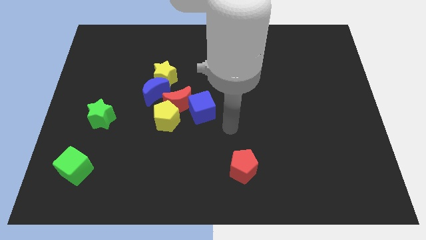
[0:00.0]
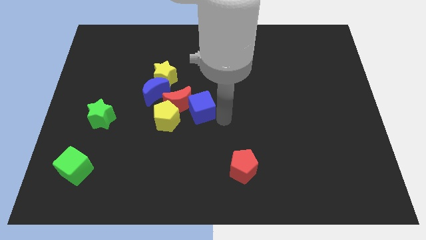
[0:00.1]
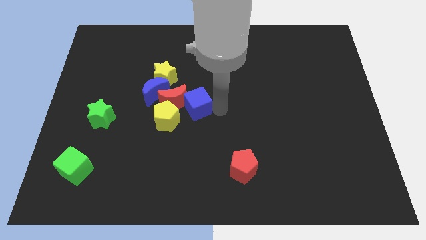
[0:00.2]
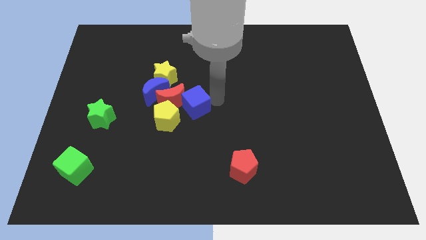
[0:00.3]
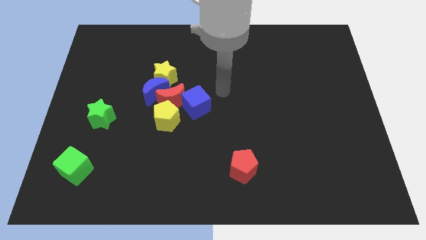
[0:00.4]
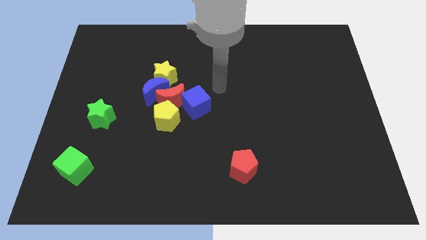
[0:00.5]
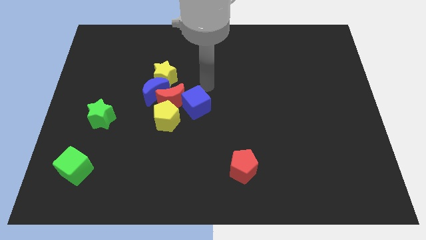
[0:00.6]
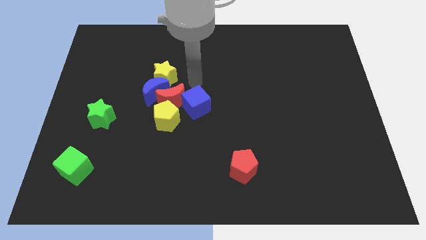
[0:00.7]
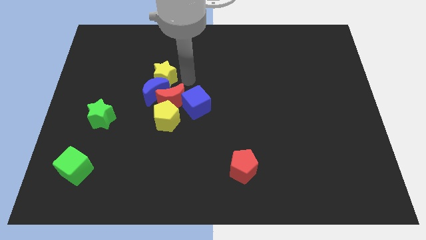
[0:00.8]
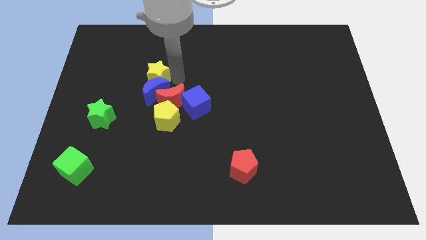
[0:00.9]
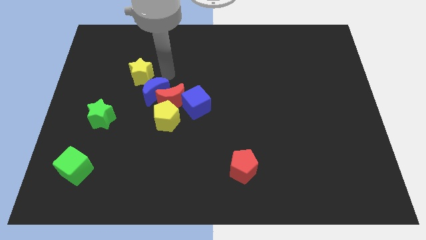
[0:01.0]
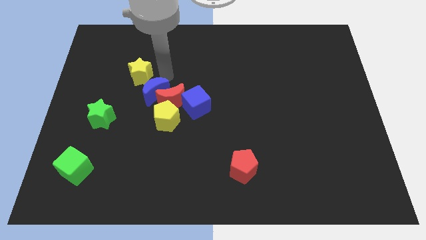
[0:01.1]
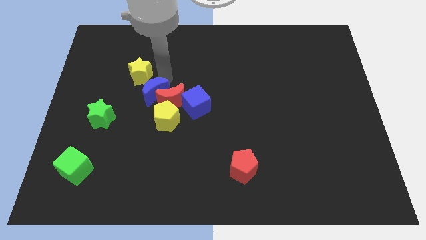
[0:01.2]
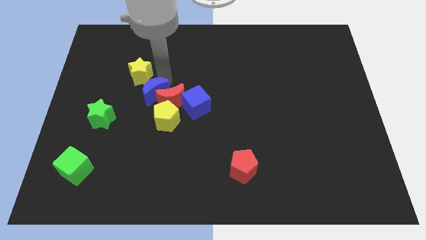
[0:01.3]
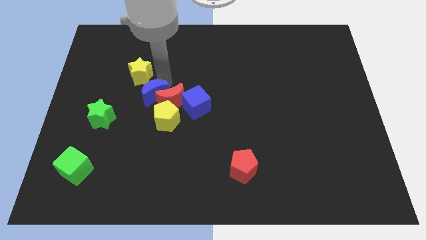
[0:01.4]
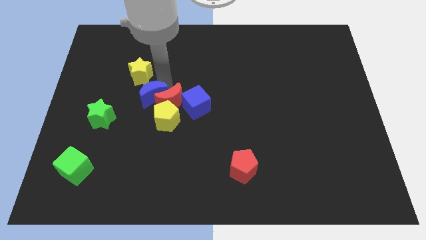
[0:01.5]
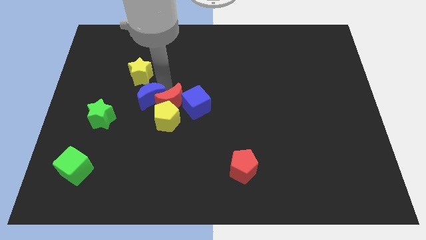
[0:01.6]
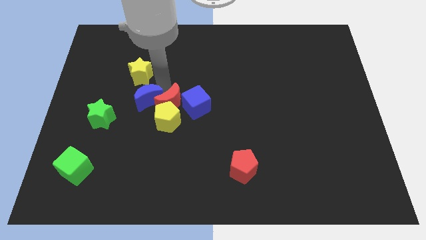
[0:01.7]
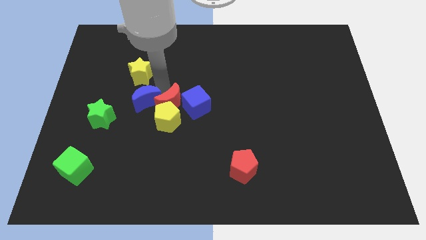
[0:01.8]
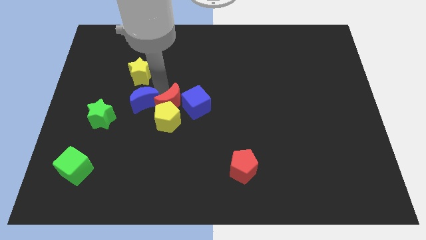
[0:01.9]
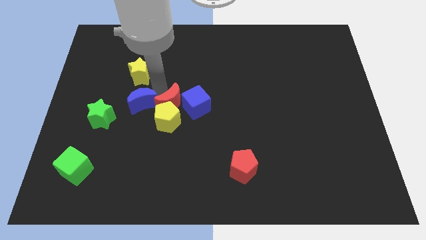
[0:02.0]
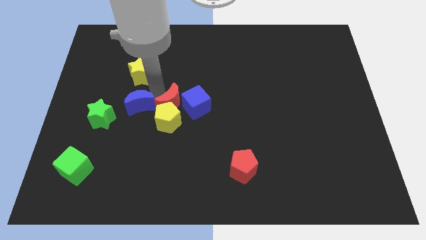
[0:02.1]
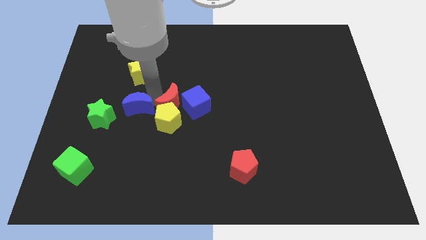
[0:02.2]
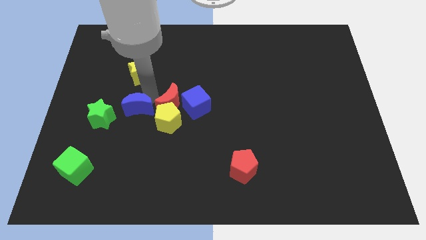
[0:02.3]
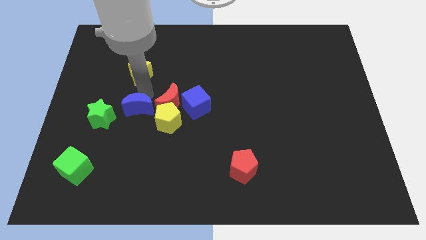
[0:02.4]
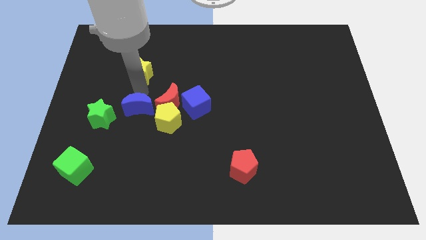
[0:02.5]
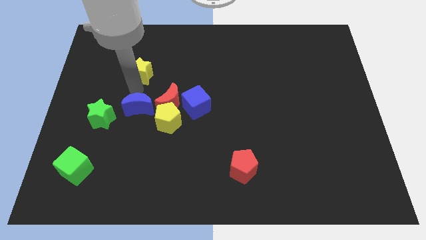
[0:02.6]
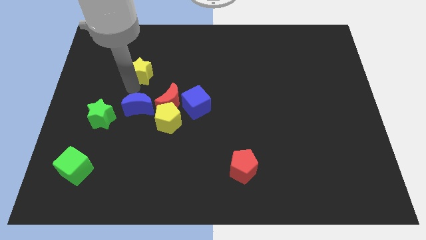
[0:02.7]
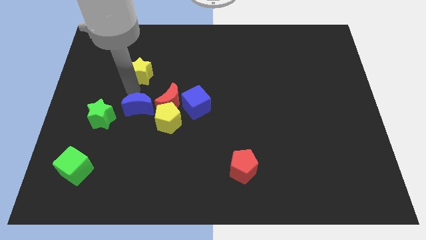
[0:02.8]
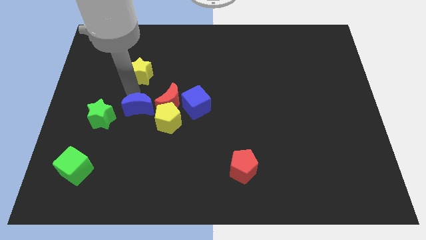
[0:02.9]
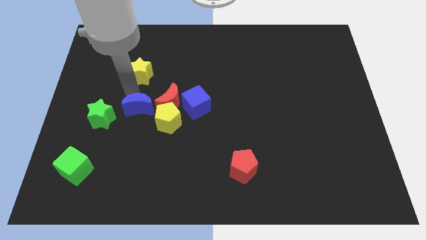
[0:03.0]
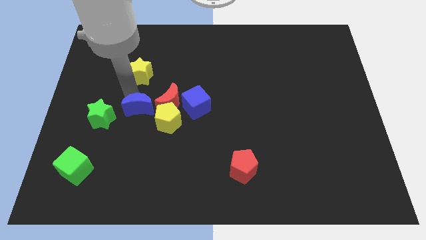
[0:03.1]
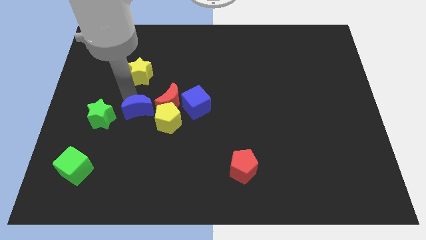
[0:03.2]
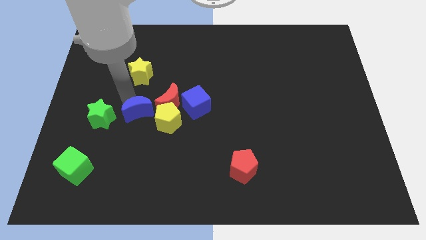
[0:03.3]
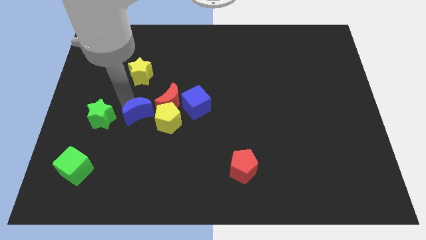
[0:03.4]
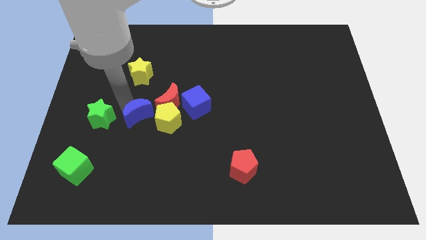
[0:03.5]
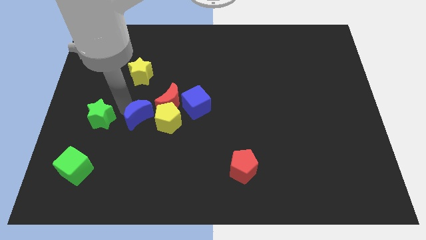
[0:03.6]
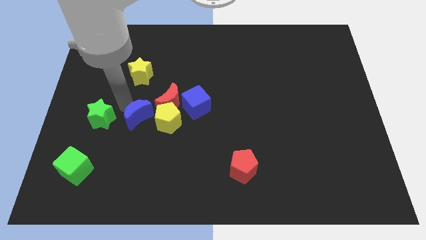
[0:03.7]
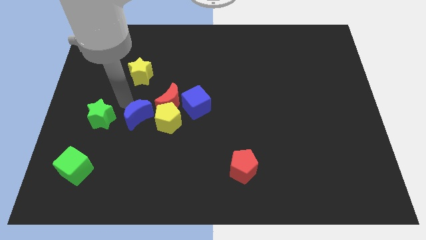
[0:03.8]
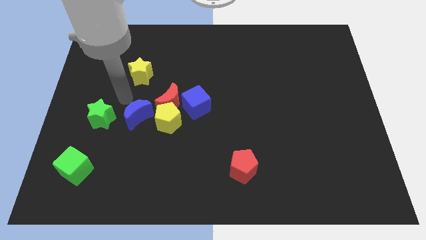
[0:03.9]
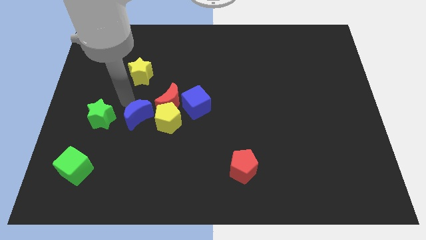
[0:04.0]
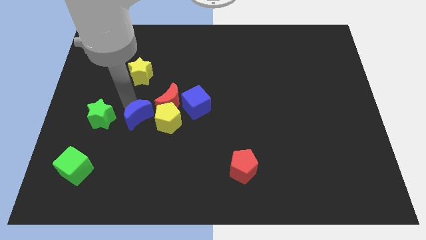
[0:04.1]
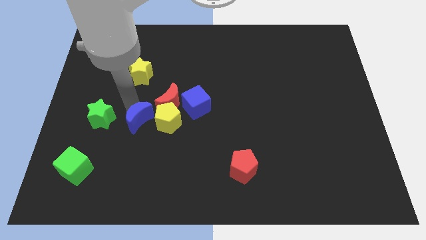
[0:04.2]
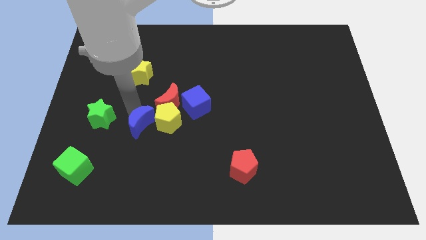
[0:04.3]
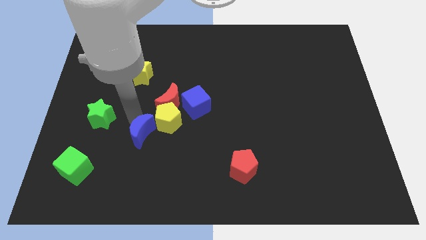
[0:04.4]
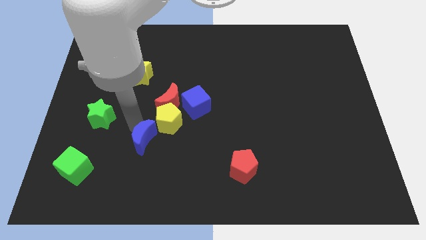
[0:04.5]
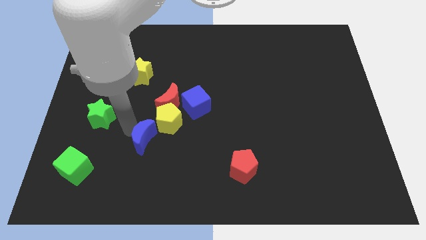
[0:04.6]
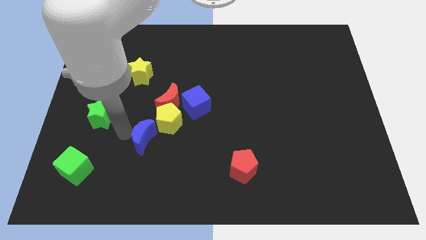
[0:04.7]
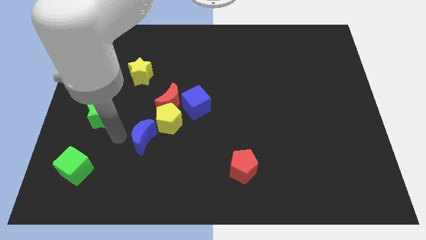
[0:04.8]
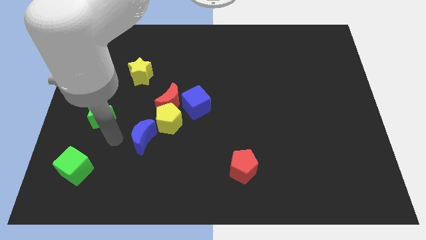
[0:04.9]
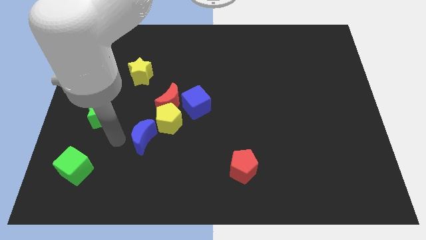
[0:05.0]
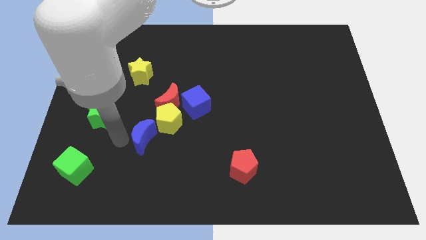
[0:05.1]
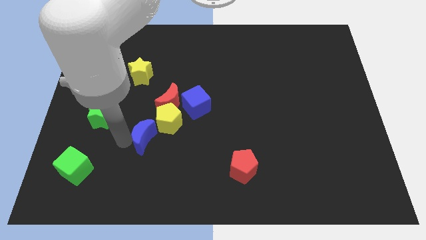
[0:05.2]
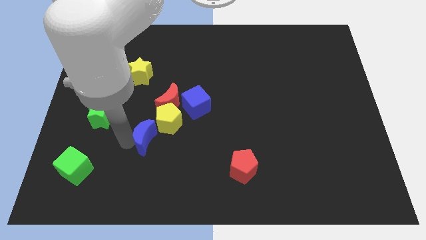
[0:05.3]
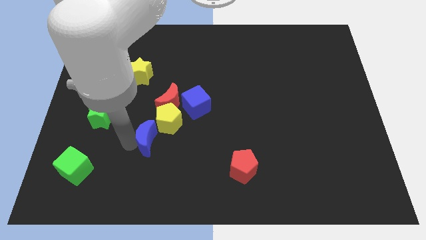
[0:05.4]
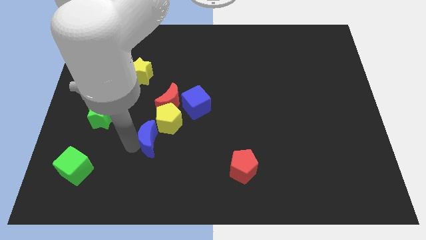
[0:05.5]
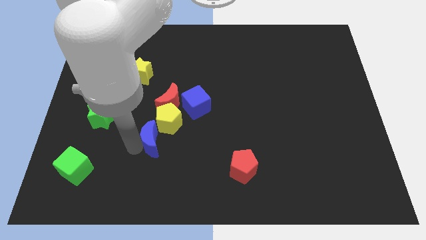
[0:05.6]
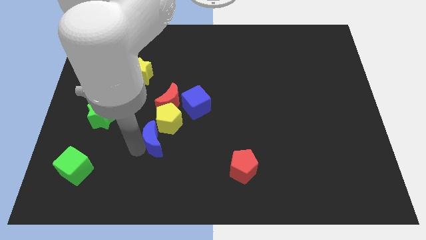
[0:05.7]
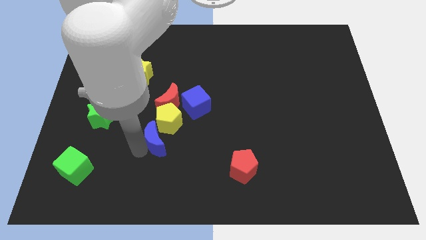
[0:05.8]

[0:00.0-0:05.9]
slightly slide the blue moon diagonally down and right

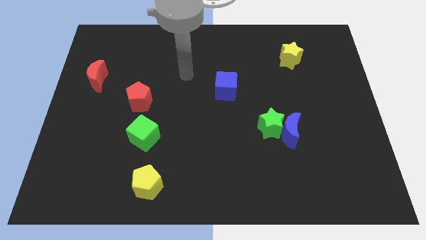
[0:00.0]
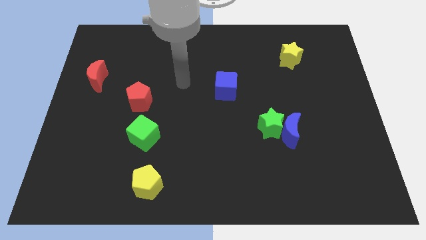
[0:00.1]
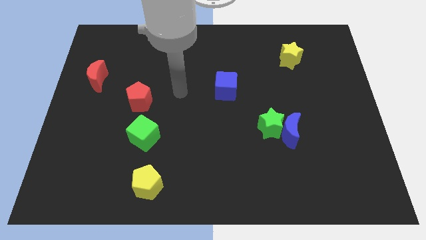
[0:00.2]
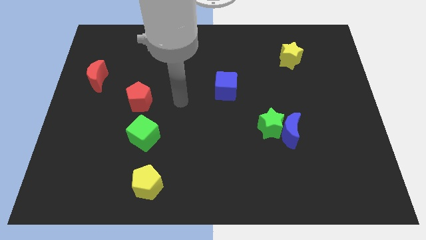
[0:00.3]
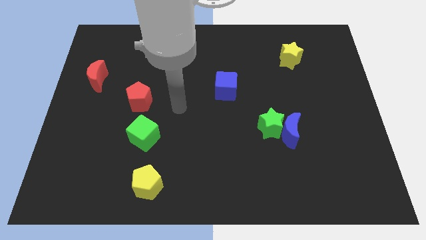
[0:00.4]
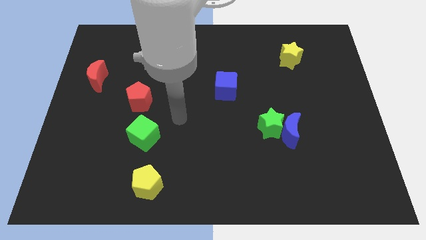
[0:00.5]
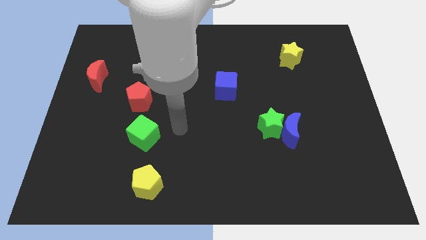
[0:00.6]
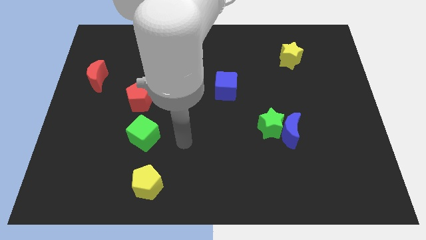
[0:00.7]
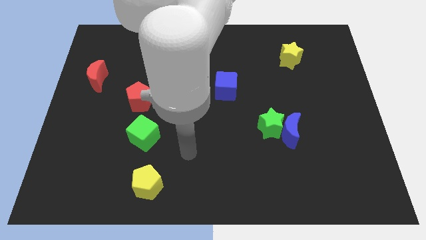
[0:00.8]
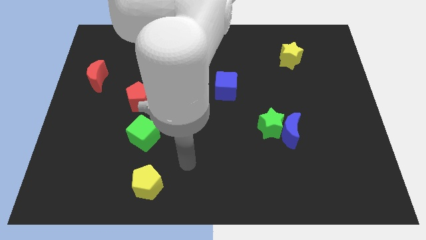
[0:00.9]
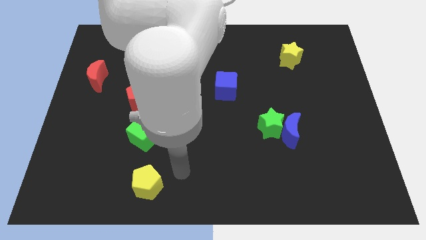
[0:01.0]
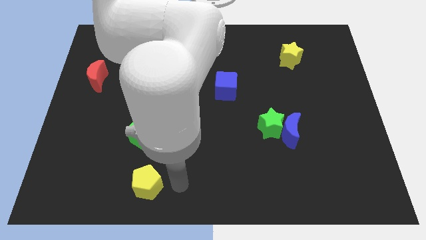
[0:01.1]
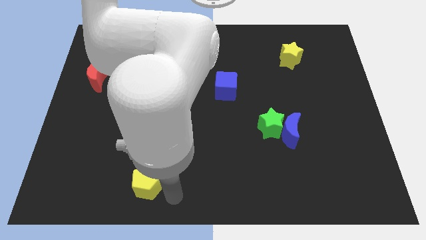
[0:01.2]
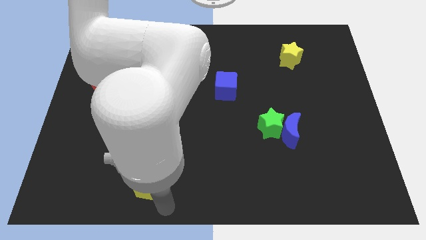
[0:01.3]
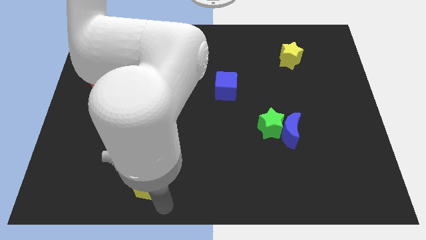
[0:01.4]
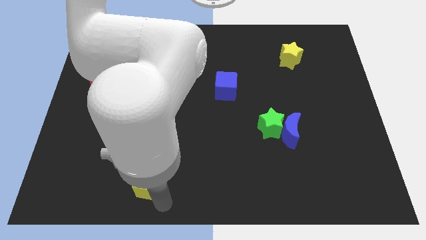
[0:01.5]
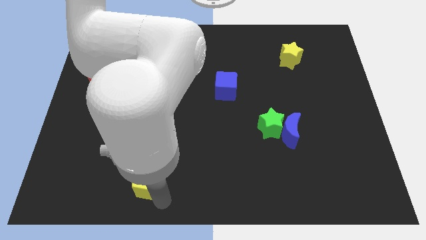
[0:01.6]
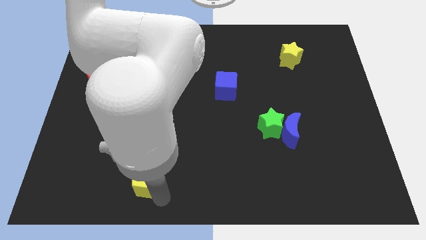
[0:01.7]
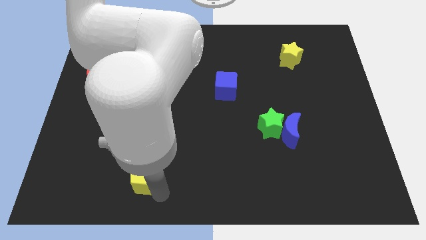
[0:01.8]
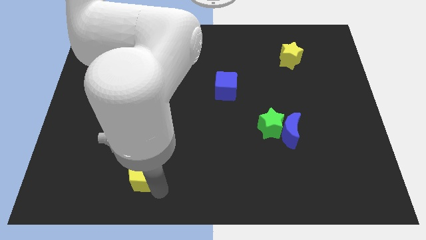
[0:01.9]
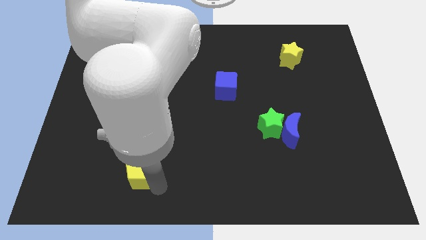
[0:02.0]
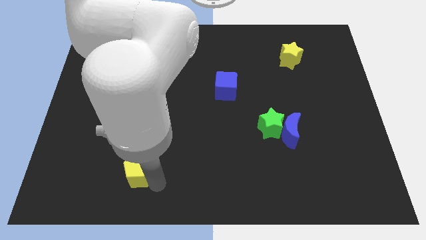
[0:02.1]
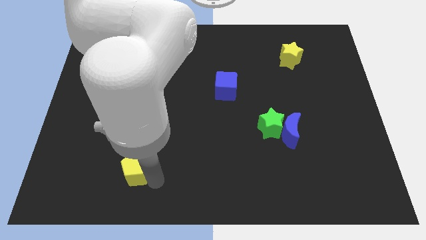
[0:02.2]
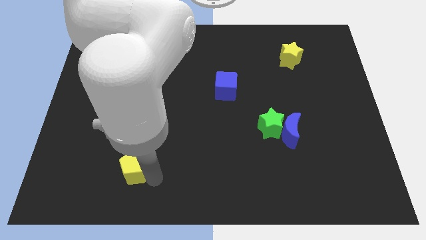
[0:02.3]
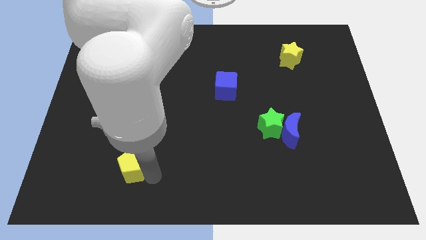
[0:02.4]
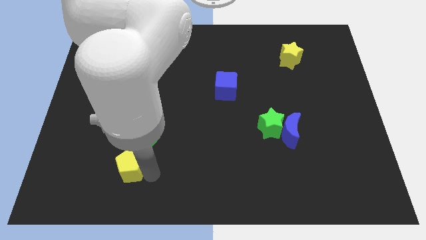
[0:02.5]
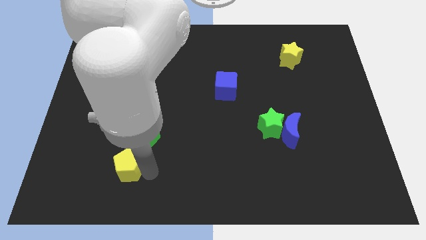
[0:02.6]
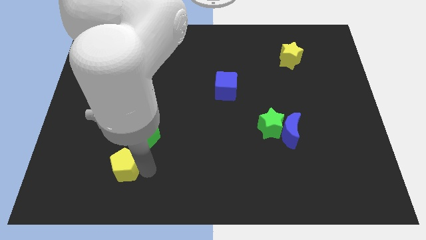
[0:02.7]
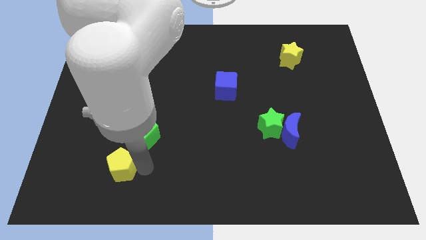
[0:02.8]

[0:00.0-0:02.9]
slide the yellow pentagon upwards and to the left diagonally a bit
